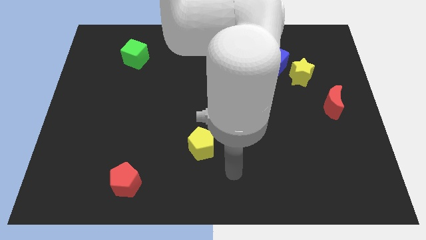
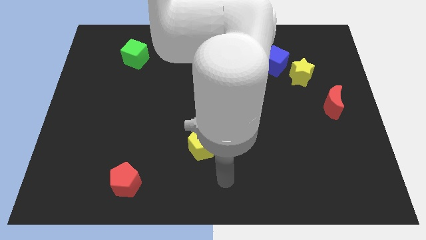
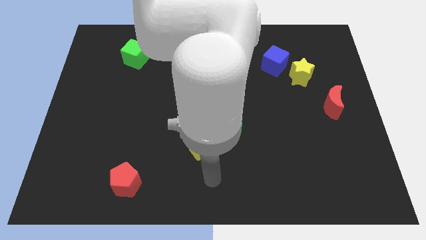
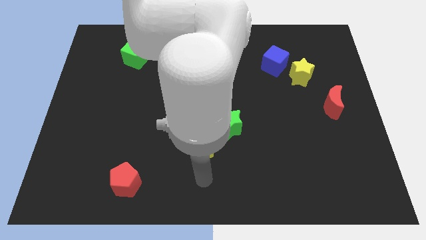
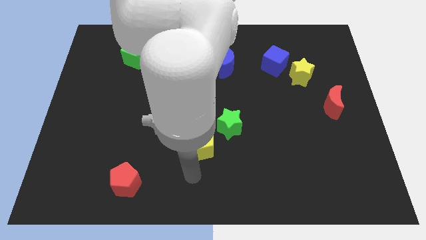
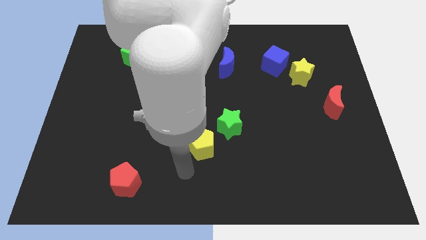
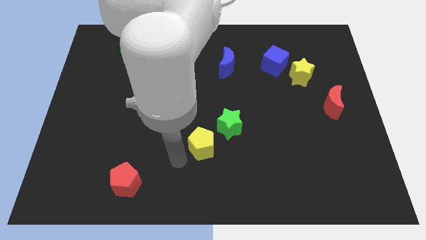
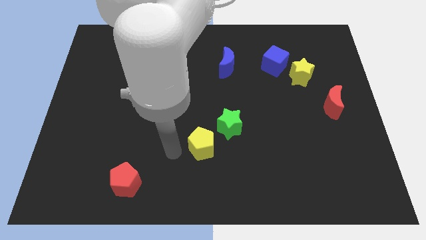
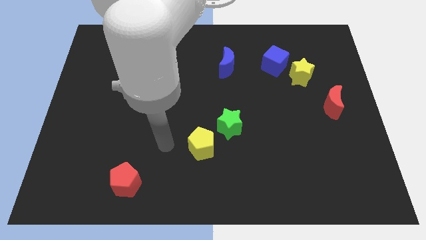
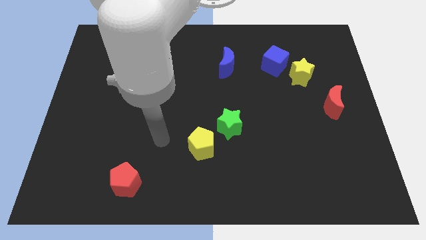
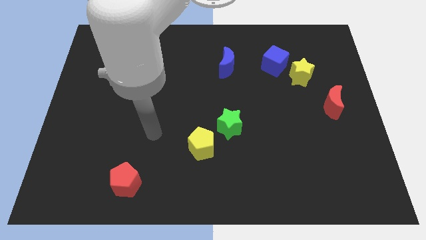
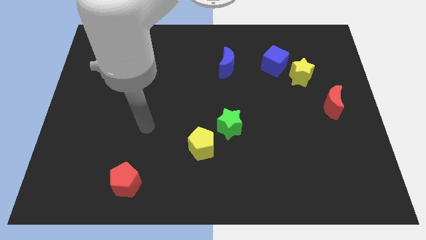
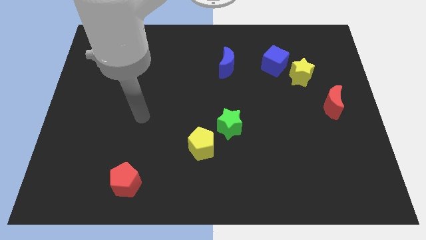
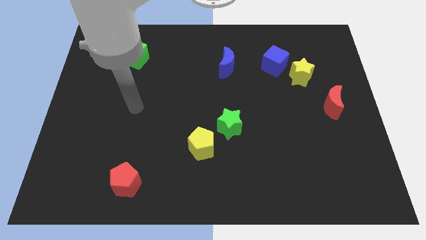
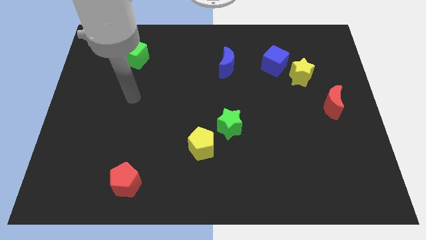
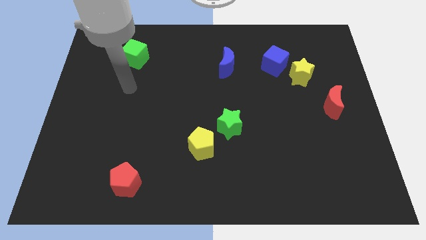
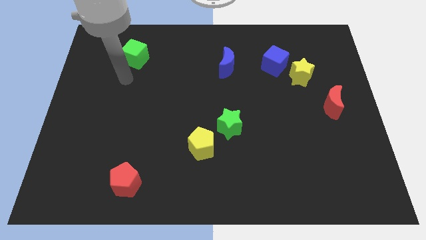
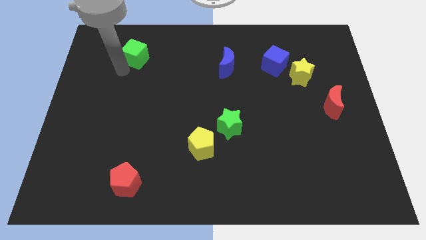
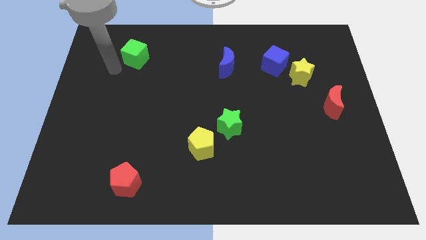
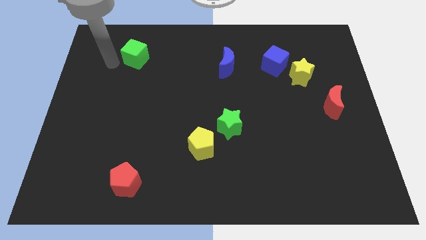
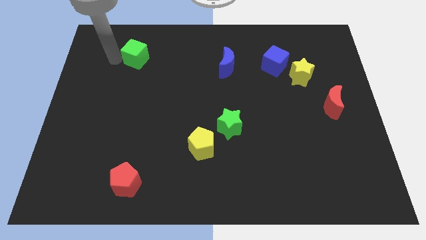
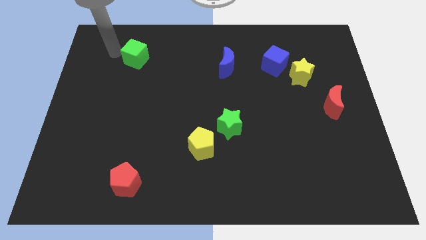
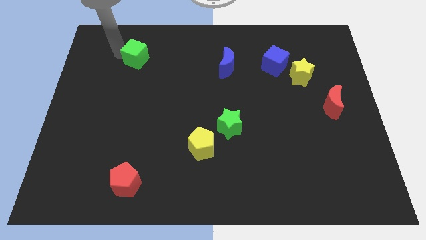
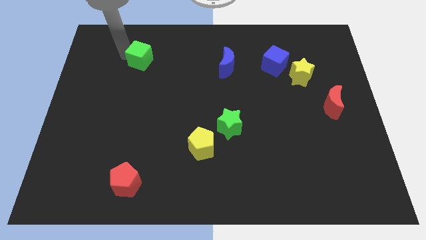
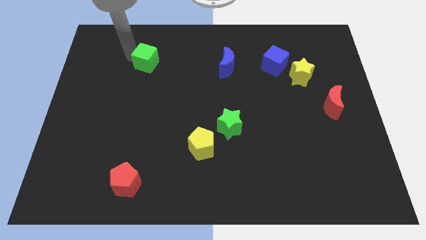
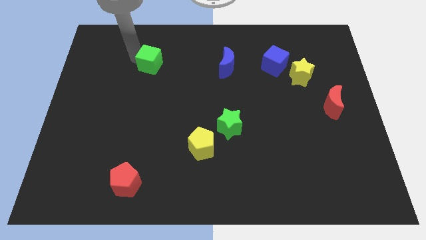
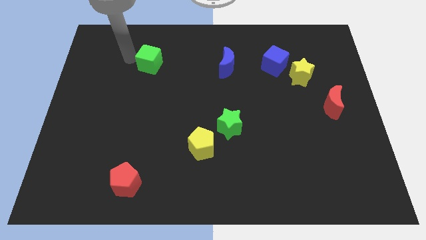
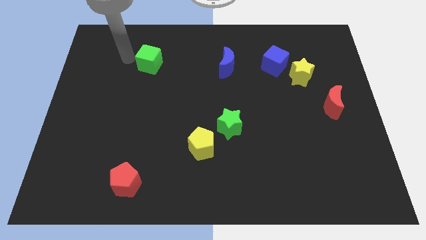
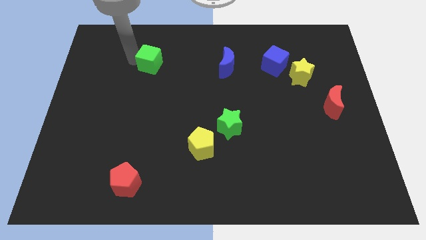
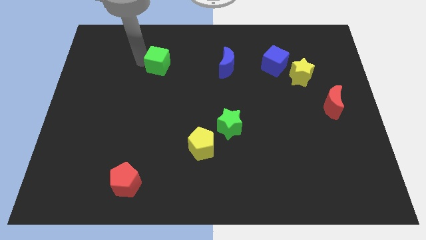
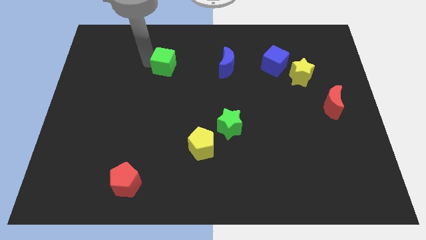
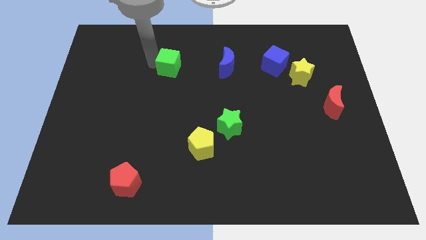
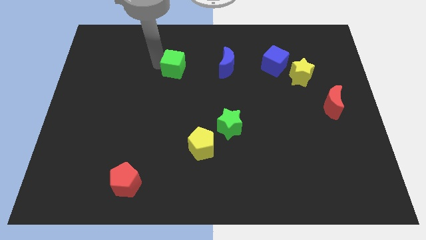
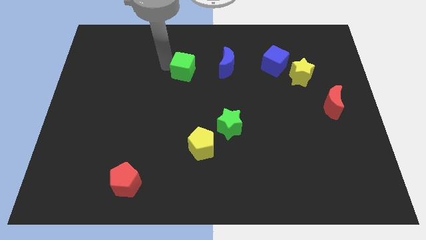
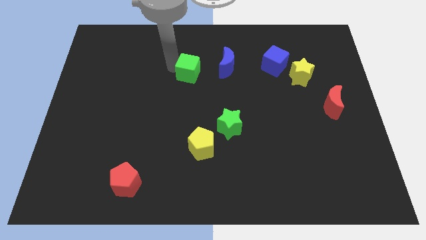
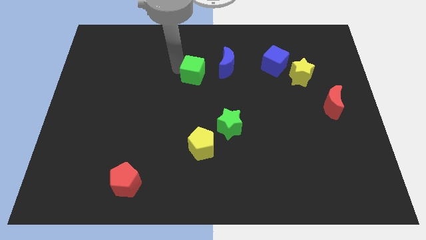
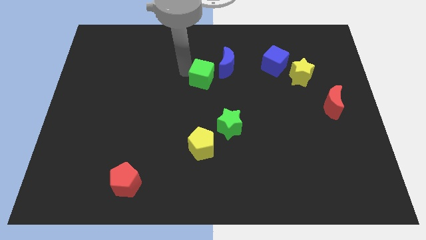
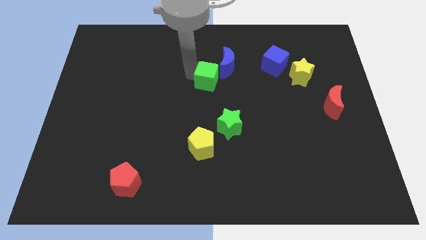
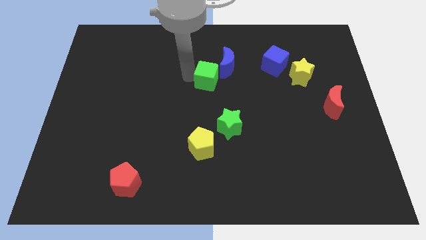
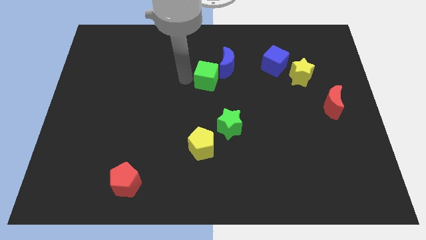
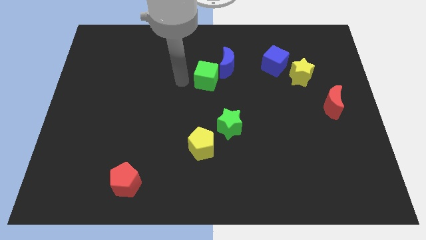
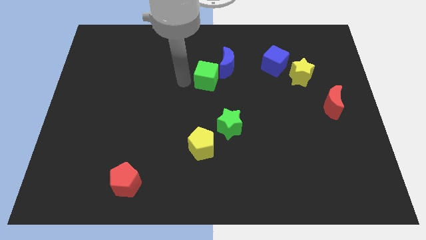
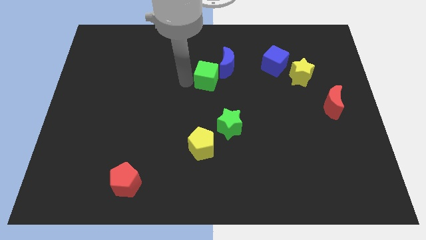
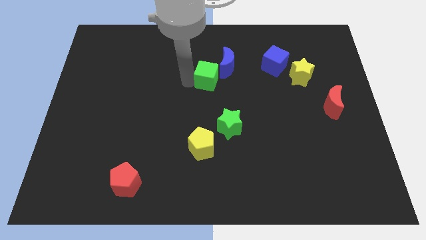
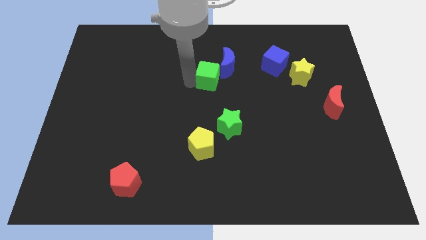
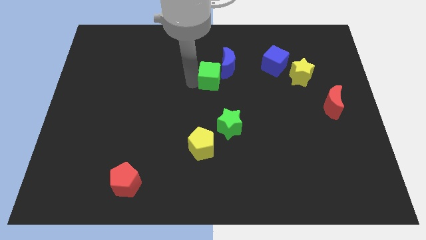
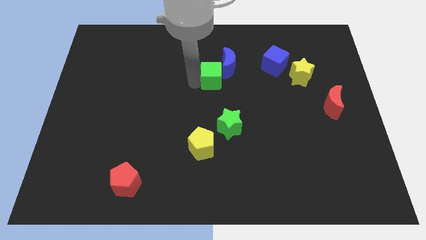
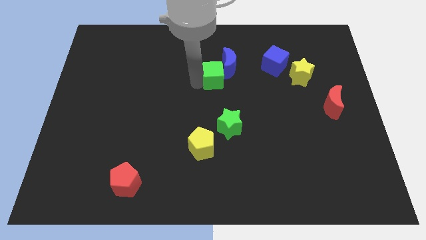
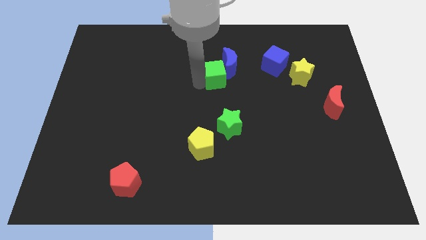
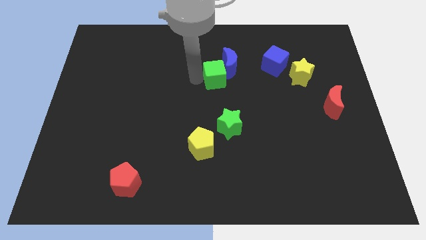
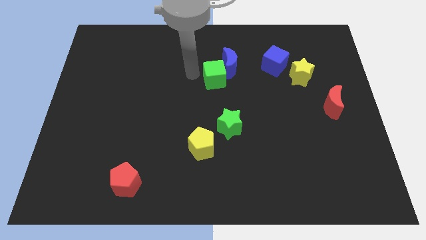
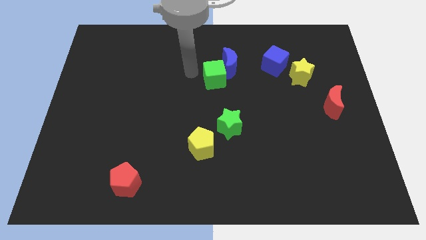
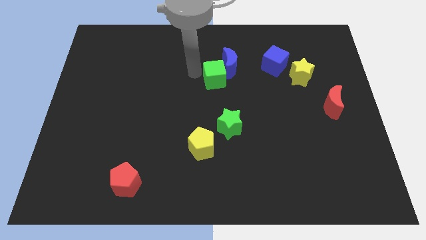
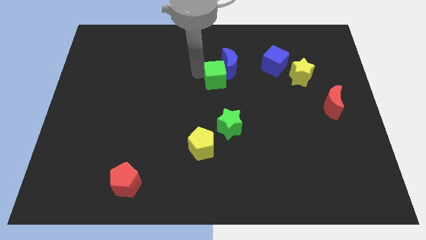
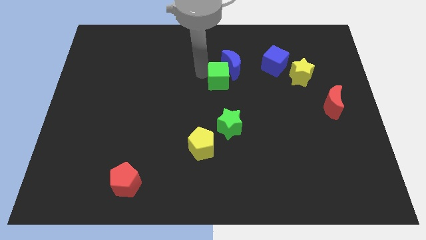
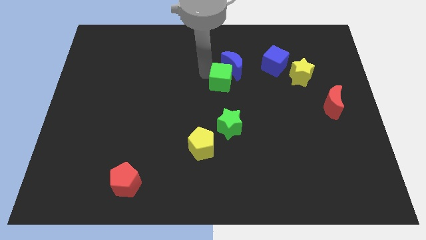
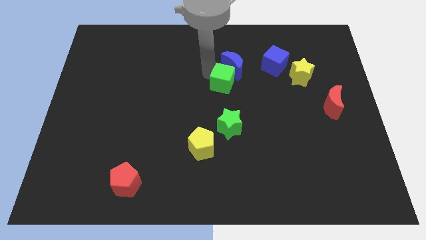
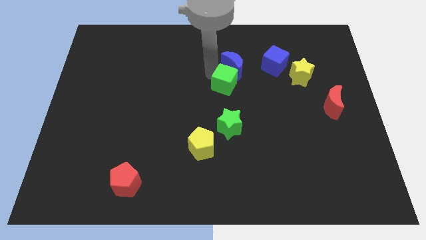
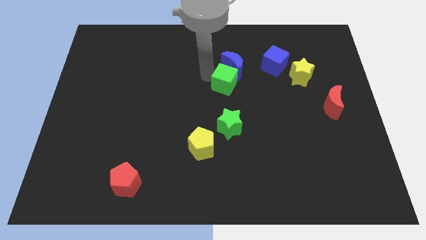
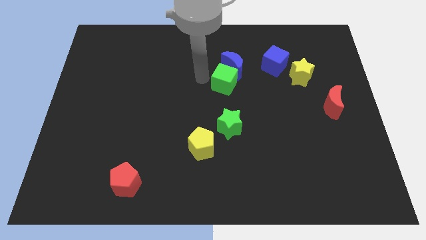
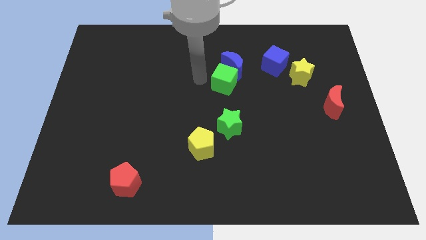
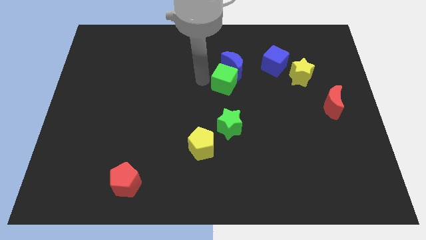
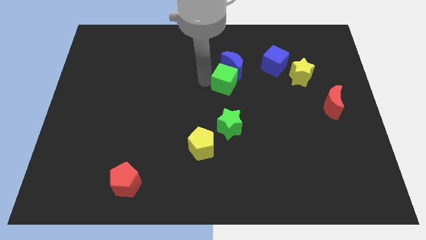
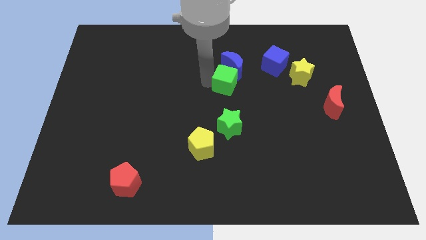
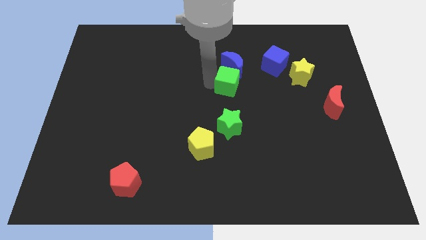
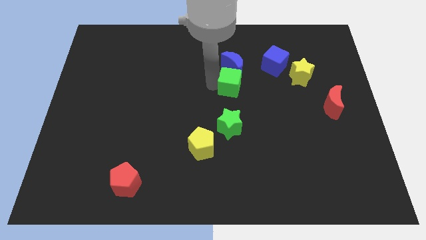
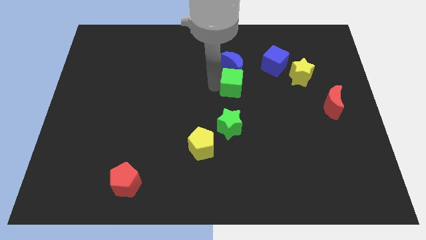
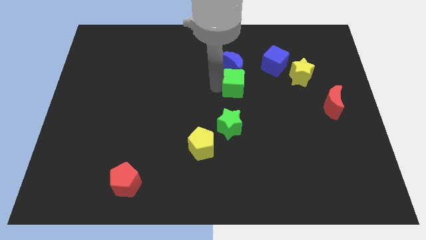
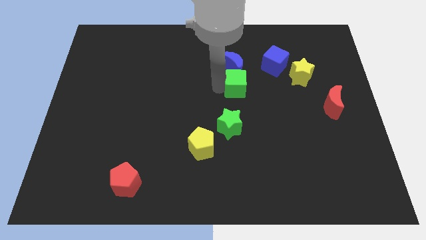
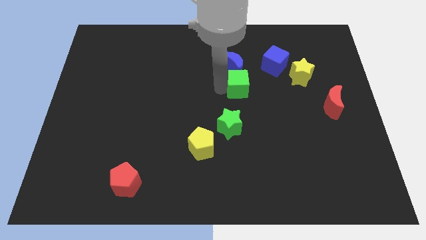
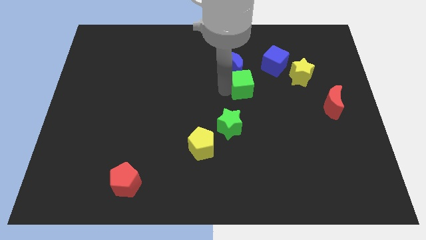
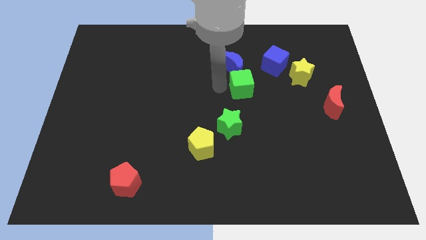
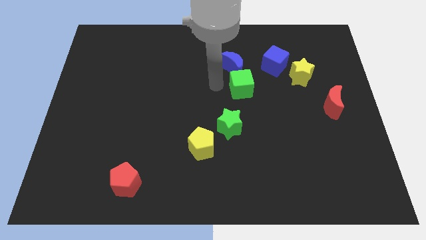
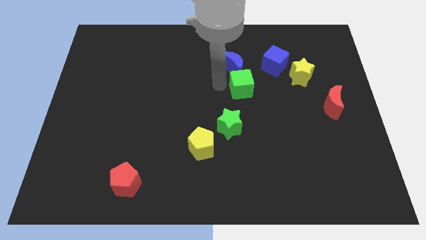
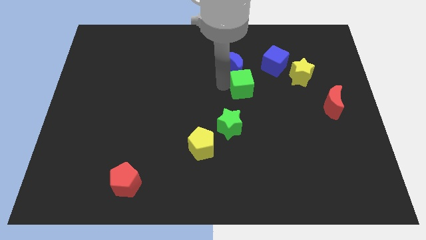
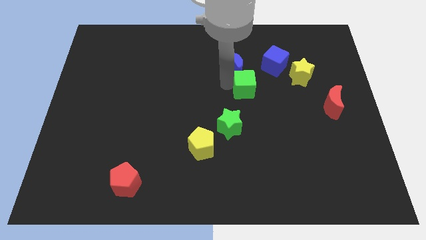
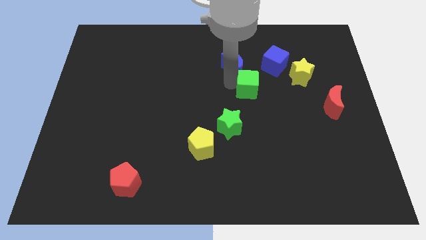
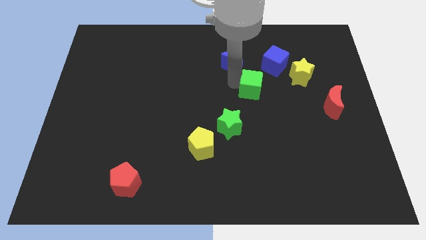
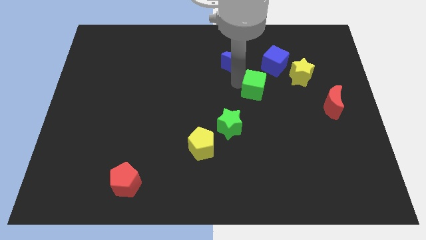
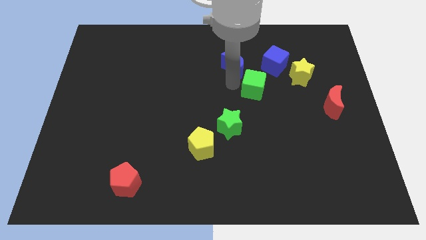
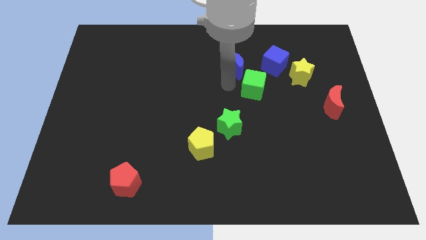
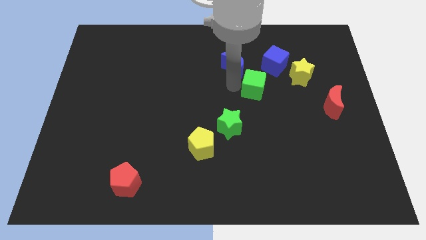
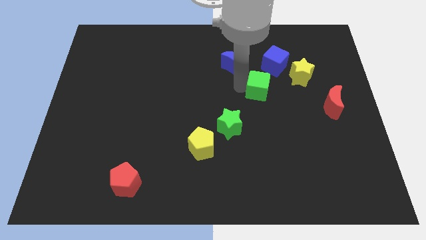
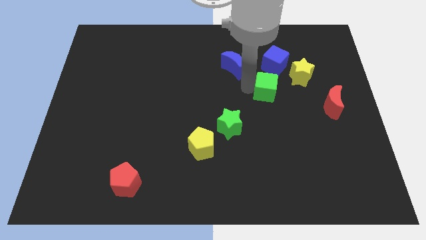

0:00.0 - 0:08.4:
move the green cube diagonally down and to the left of the yellow star
